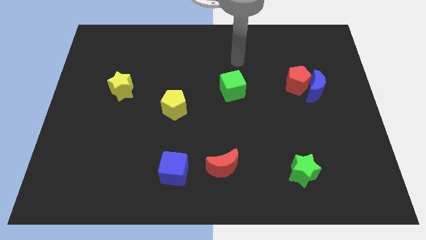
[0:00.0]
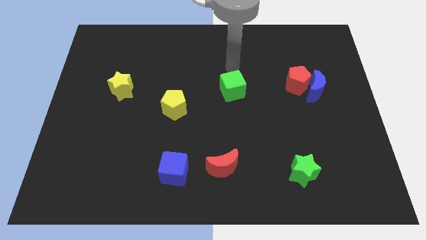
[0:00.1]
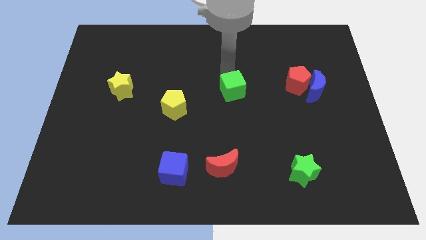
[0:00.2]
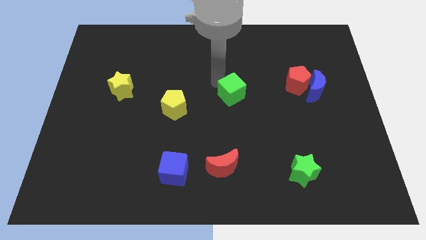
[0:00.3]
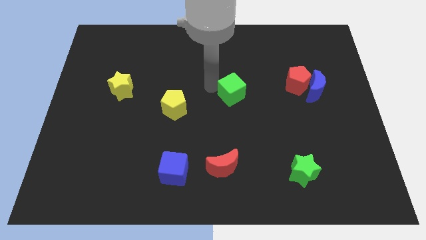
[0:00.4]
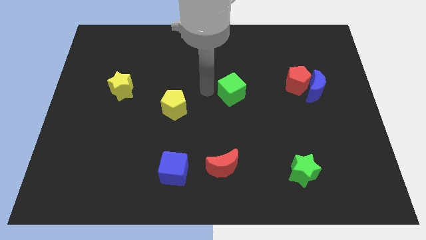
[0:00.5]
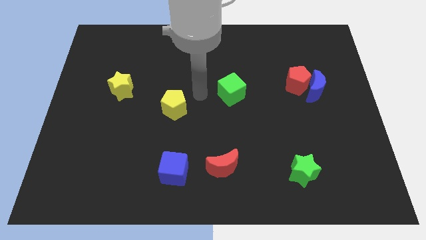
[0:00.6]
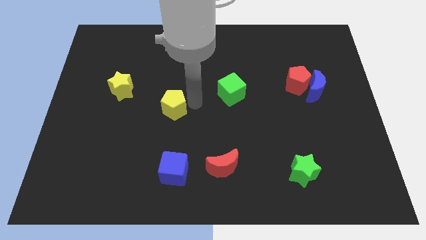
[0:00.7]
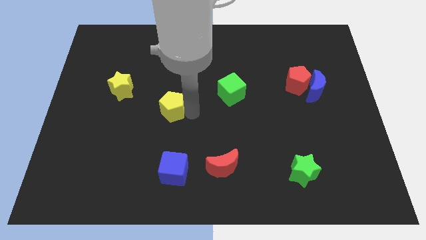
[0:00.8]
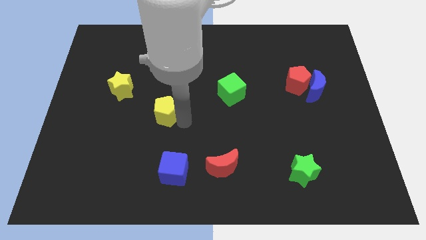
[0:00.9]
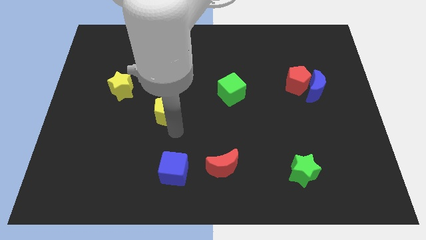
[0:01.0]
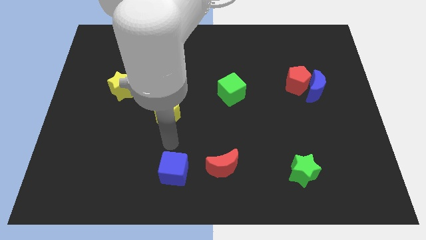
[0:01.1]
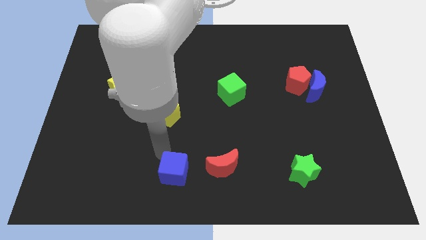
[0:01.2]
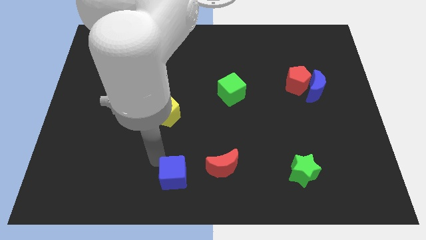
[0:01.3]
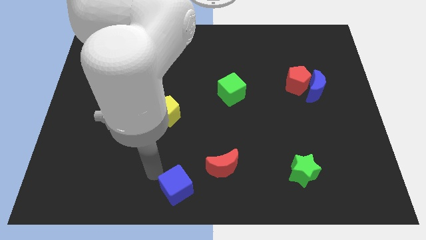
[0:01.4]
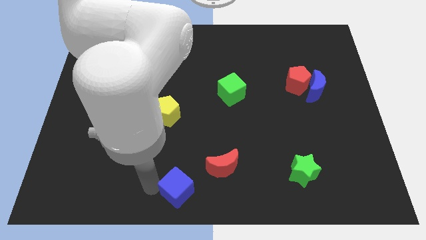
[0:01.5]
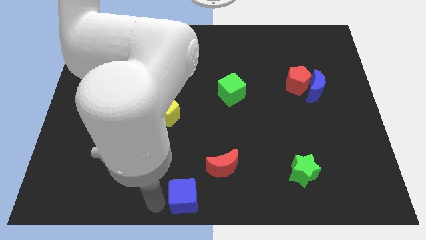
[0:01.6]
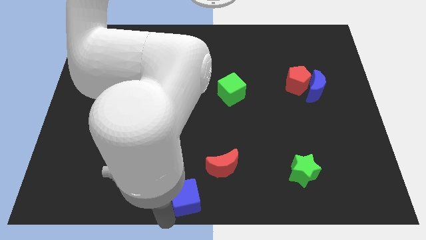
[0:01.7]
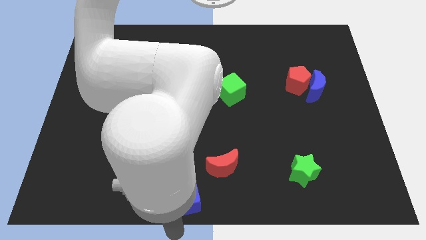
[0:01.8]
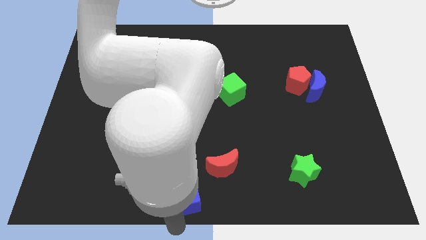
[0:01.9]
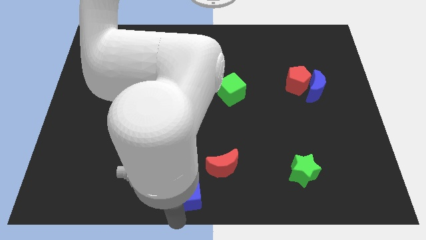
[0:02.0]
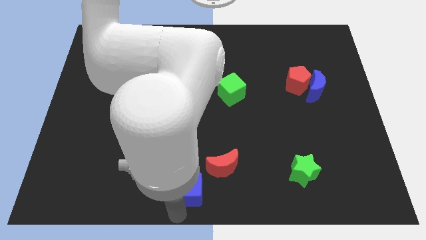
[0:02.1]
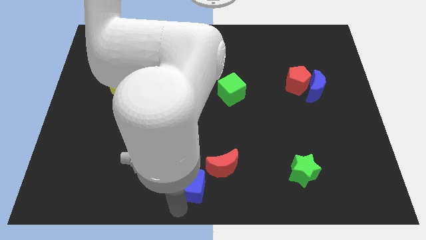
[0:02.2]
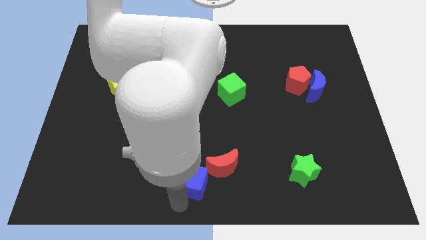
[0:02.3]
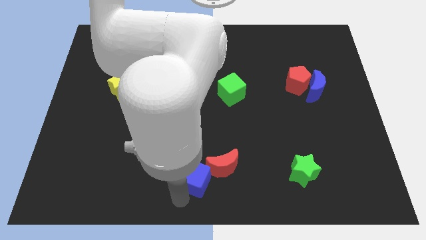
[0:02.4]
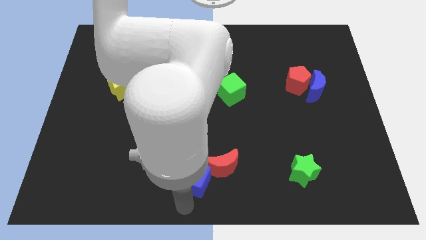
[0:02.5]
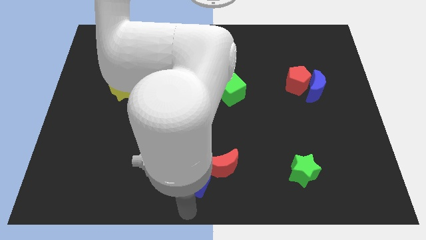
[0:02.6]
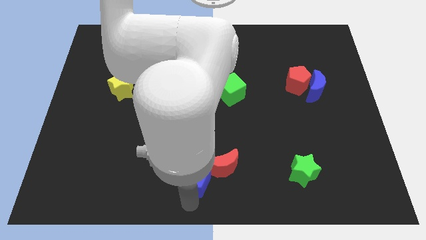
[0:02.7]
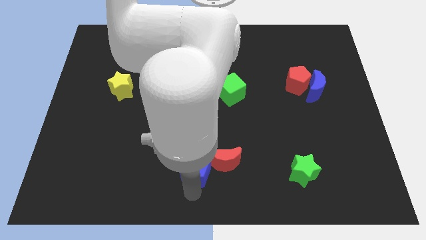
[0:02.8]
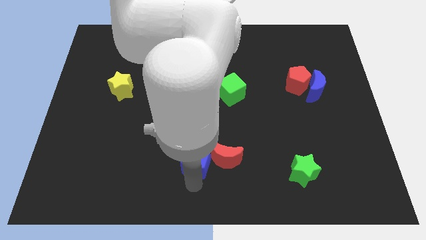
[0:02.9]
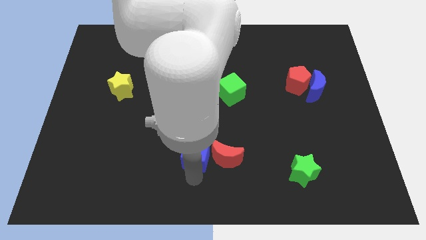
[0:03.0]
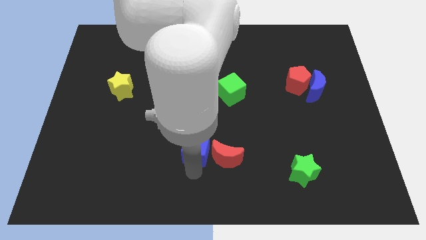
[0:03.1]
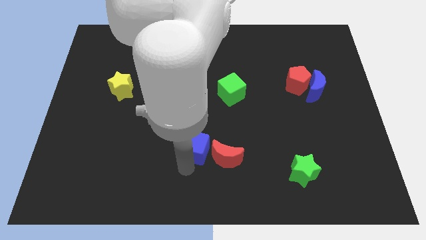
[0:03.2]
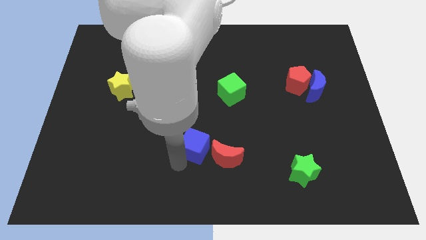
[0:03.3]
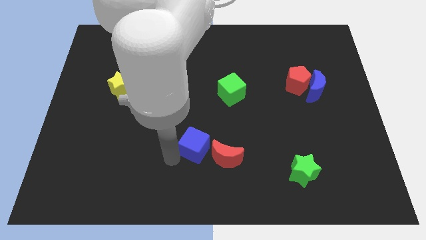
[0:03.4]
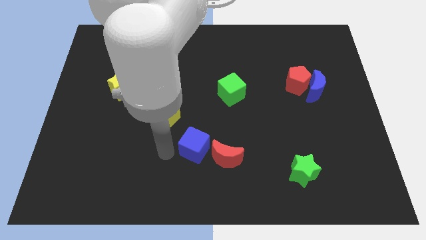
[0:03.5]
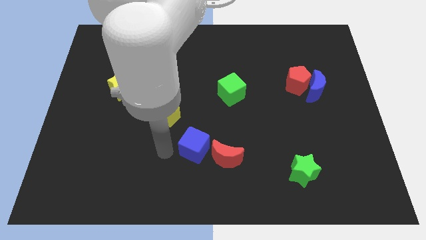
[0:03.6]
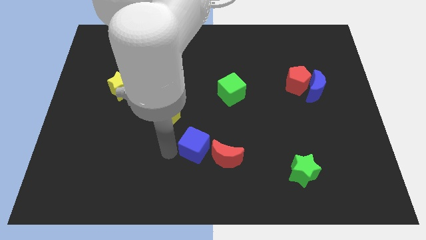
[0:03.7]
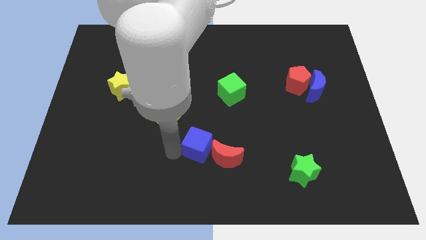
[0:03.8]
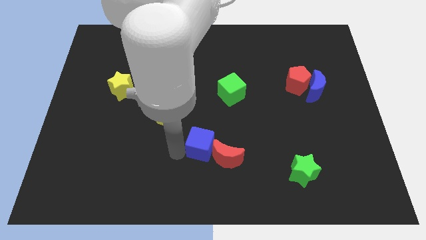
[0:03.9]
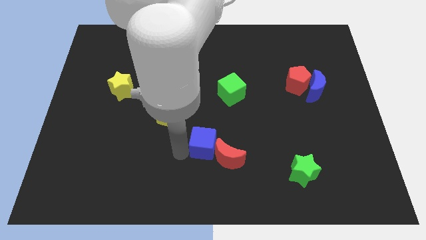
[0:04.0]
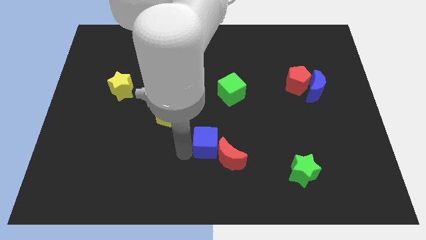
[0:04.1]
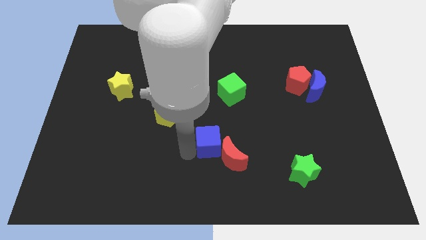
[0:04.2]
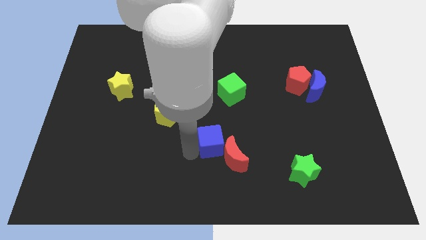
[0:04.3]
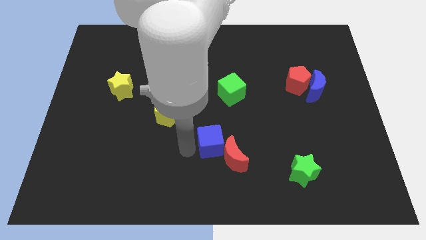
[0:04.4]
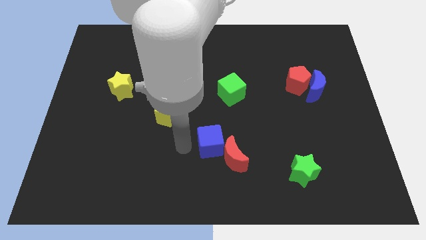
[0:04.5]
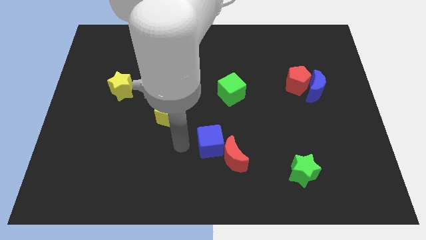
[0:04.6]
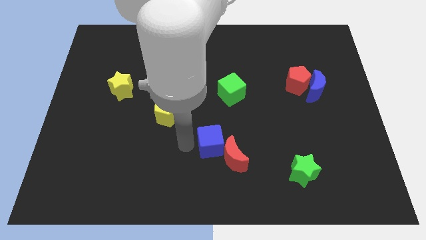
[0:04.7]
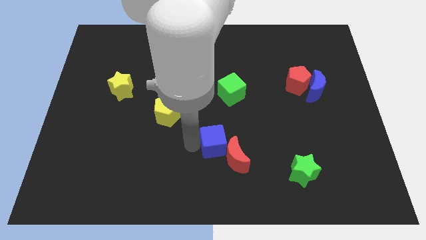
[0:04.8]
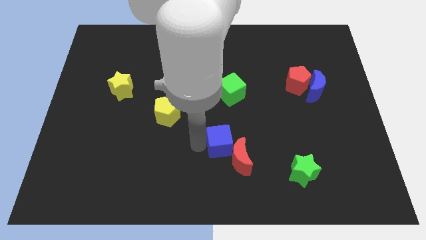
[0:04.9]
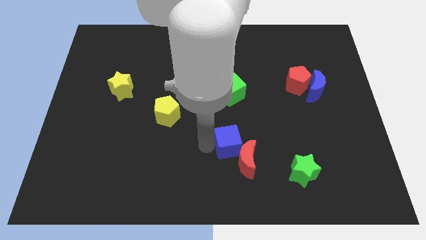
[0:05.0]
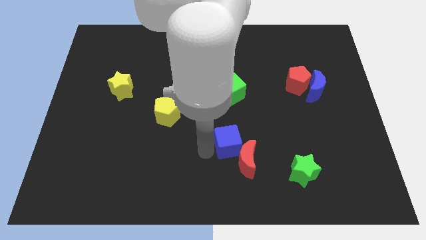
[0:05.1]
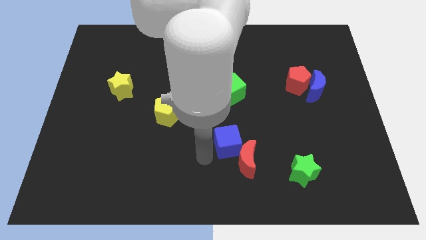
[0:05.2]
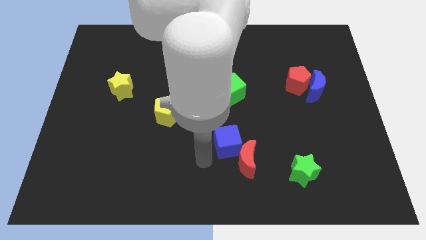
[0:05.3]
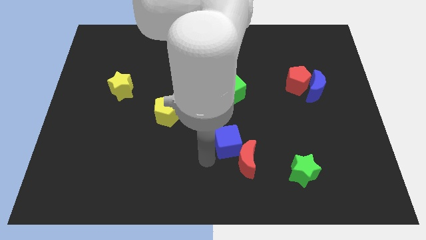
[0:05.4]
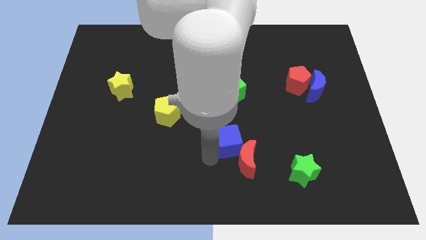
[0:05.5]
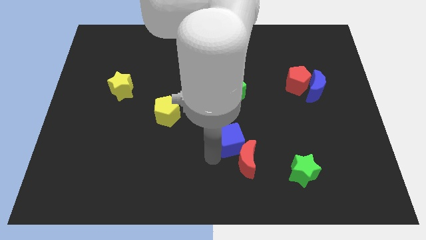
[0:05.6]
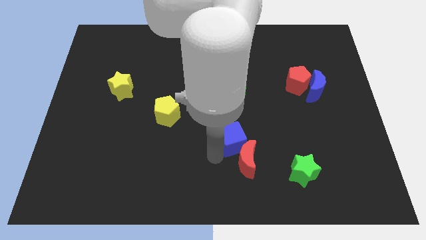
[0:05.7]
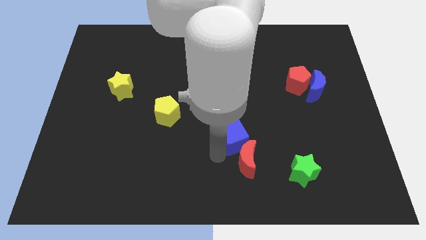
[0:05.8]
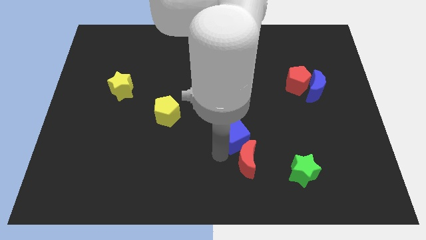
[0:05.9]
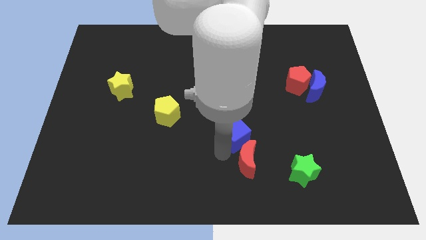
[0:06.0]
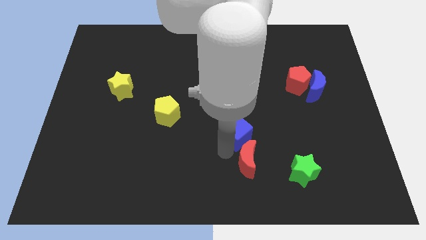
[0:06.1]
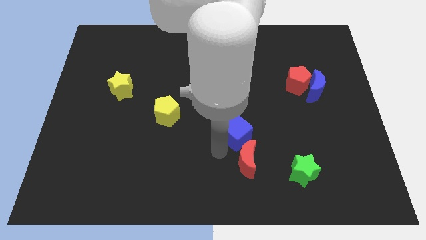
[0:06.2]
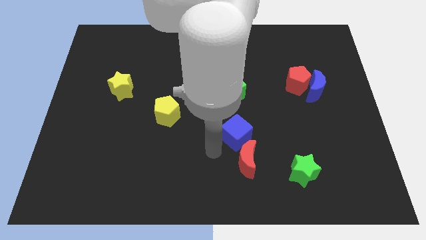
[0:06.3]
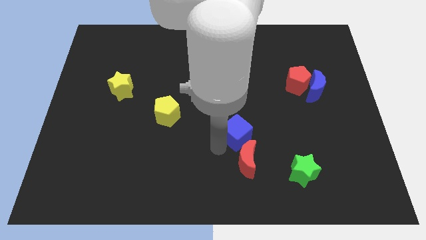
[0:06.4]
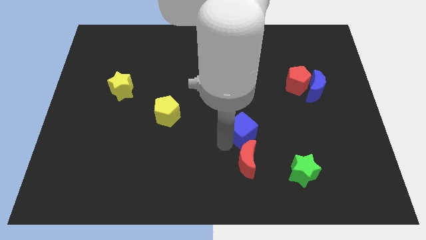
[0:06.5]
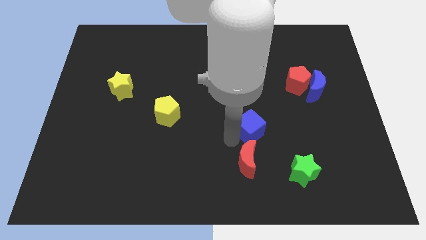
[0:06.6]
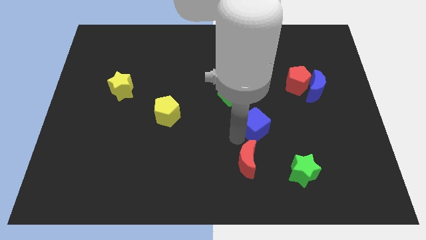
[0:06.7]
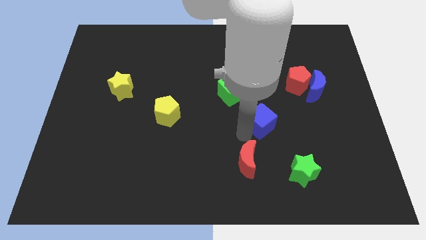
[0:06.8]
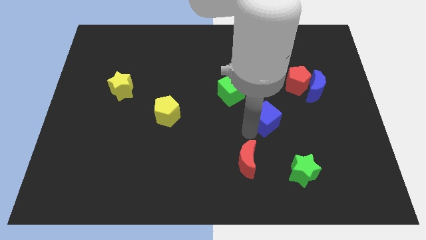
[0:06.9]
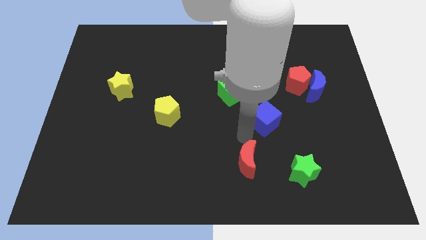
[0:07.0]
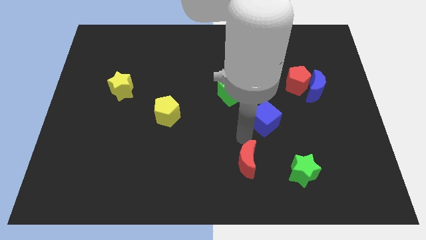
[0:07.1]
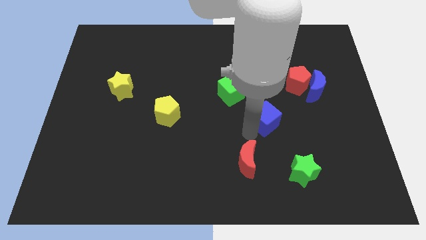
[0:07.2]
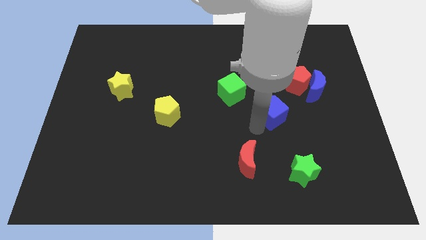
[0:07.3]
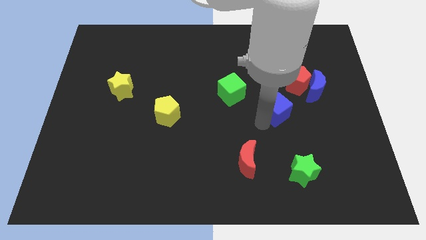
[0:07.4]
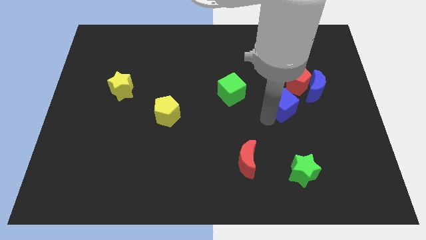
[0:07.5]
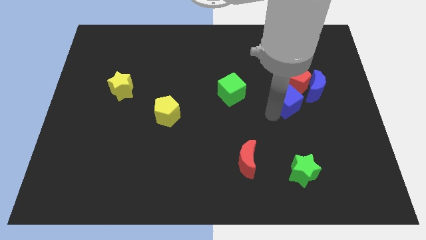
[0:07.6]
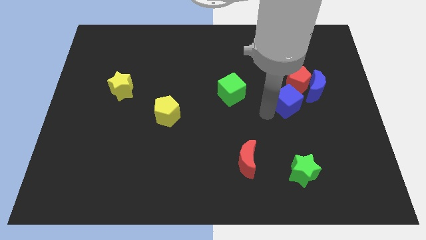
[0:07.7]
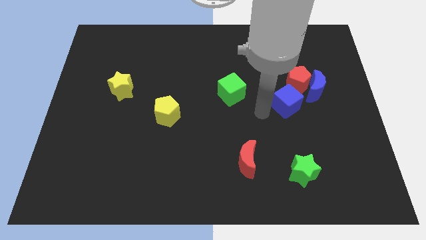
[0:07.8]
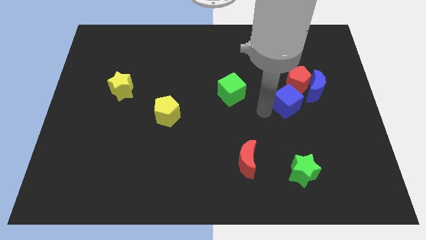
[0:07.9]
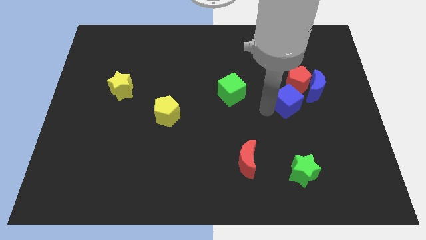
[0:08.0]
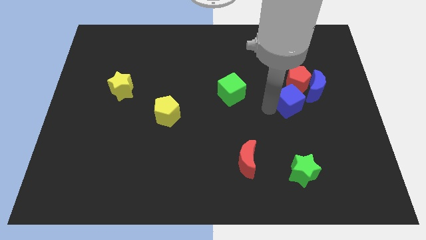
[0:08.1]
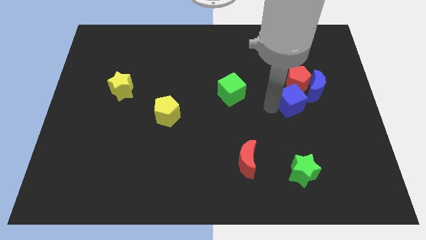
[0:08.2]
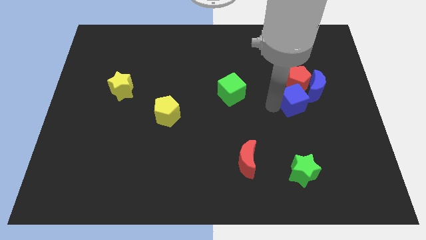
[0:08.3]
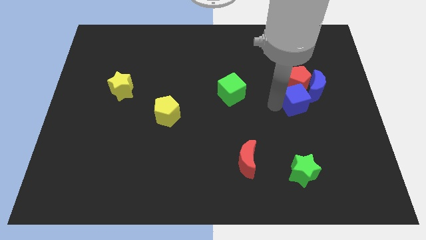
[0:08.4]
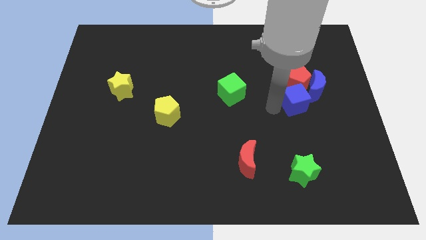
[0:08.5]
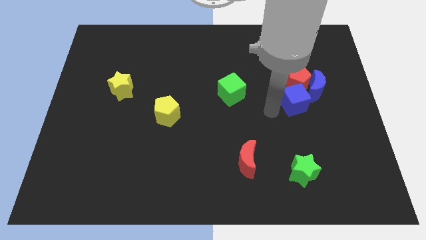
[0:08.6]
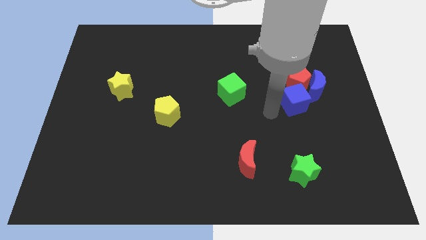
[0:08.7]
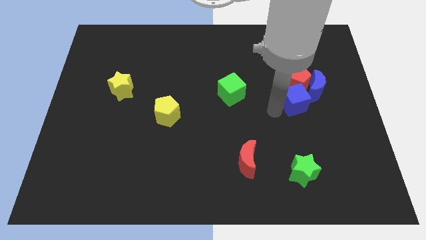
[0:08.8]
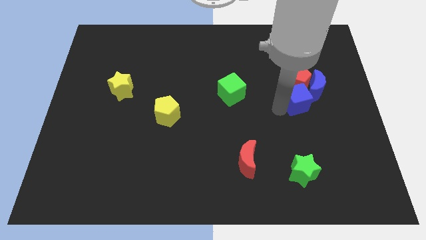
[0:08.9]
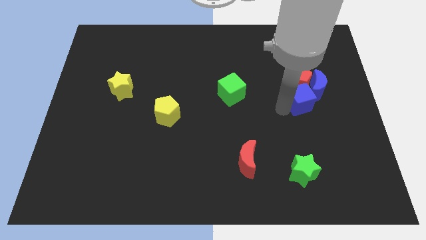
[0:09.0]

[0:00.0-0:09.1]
slide the blue cube close to the blue moon
